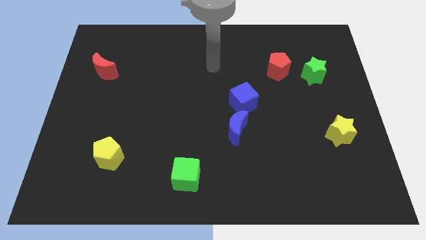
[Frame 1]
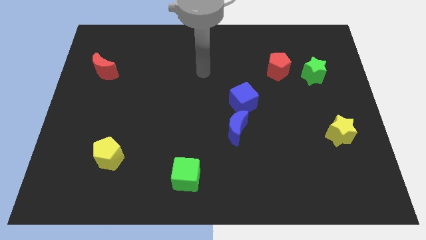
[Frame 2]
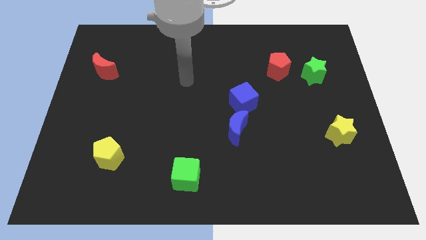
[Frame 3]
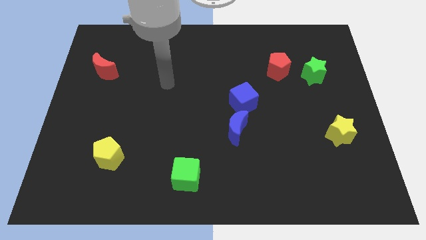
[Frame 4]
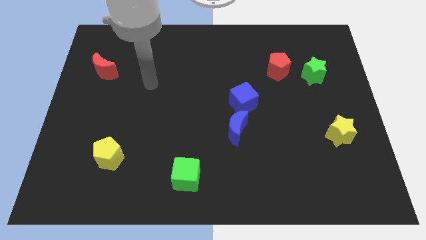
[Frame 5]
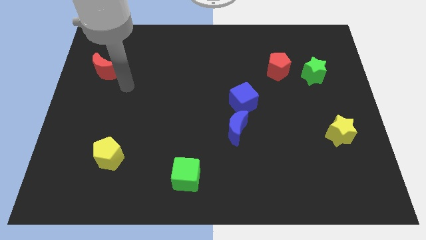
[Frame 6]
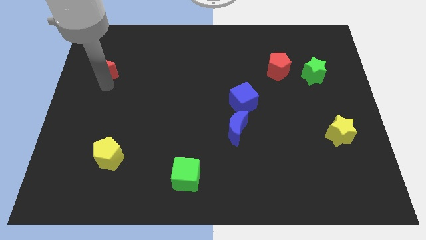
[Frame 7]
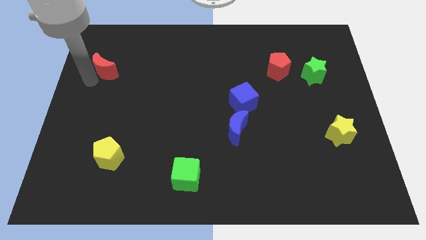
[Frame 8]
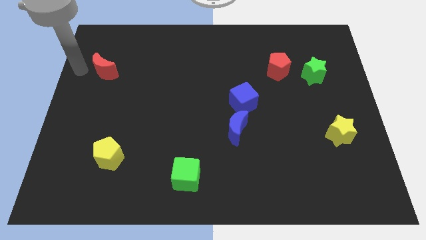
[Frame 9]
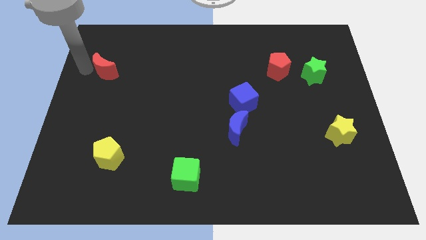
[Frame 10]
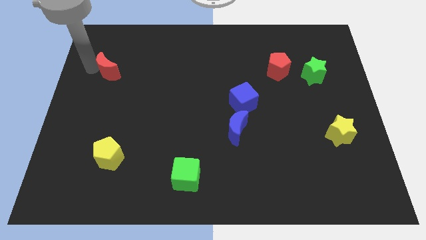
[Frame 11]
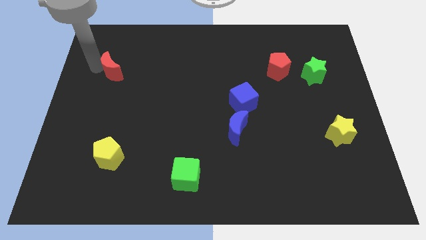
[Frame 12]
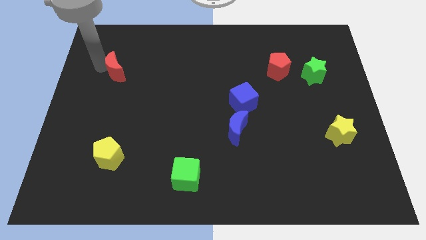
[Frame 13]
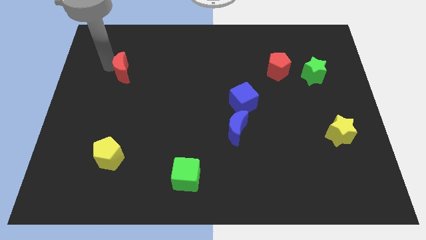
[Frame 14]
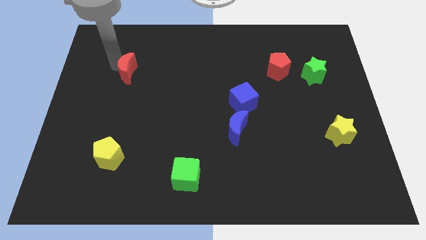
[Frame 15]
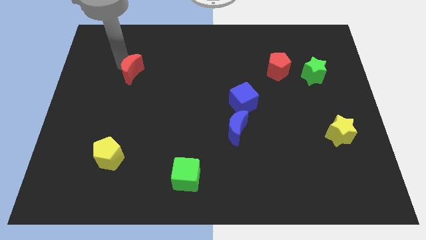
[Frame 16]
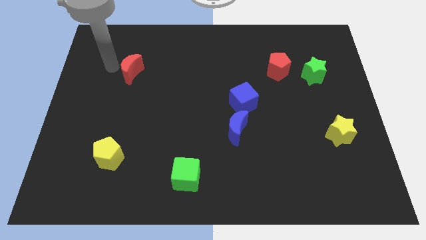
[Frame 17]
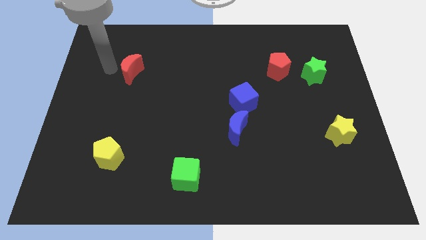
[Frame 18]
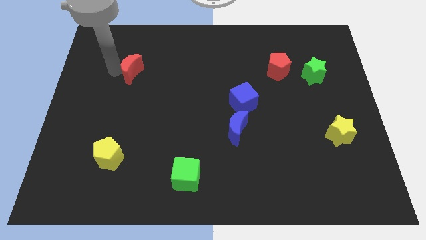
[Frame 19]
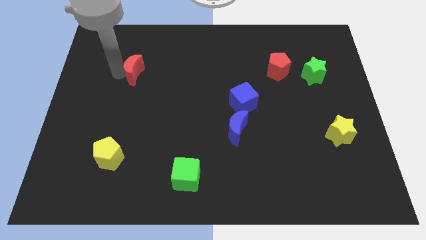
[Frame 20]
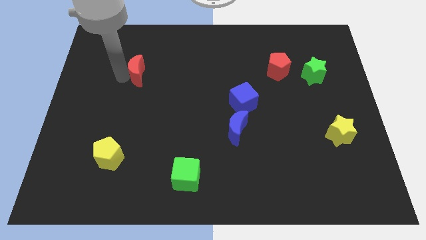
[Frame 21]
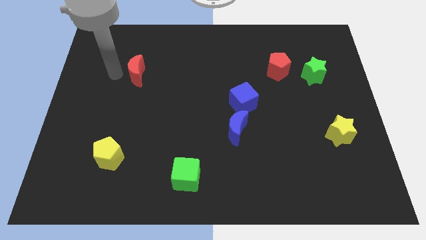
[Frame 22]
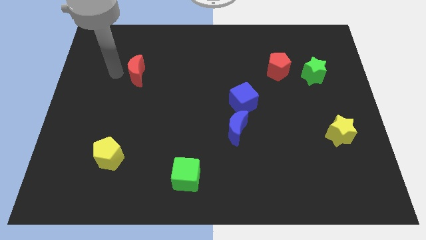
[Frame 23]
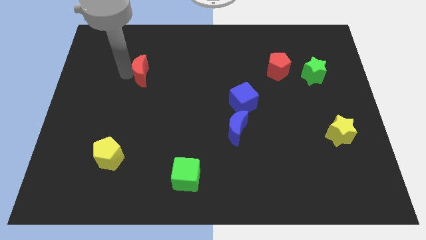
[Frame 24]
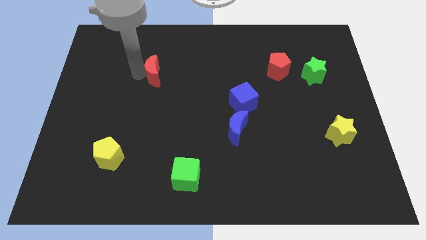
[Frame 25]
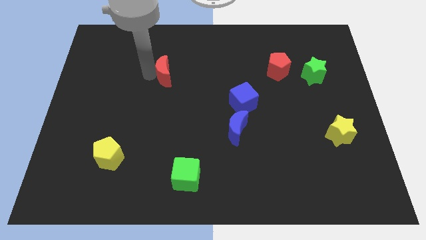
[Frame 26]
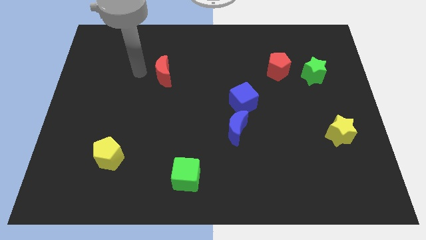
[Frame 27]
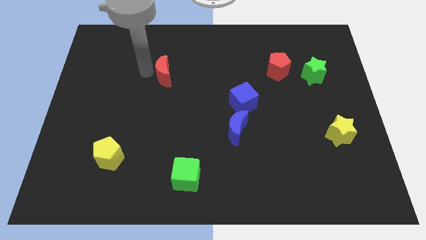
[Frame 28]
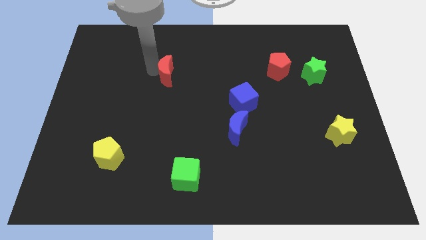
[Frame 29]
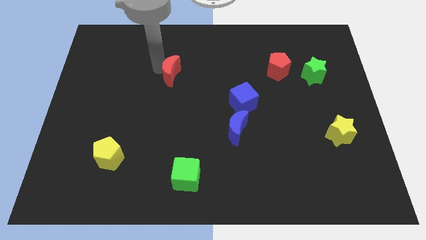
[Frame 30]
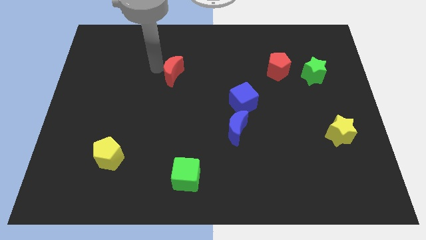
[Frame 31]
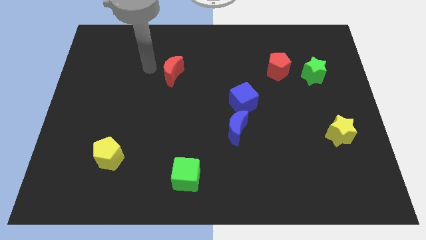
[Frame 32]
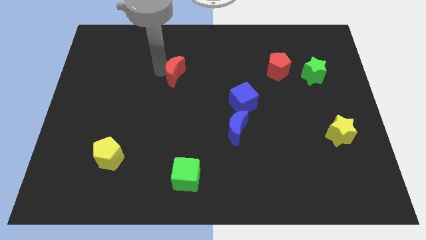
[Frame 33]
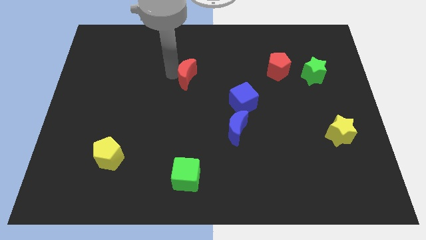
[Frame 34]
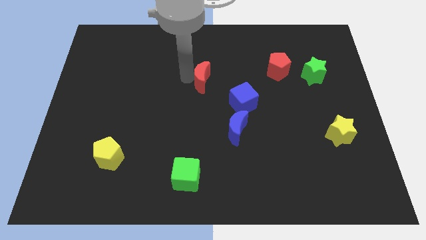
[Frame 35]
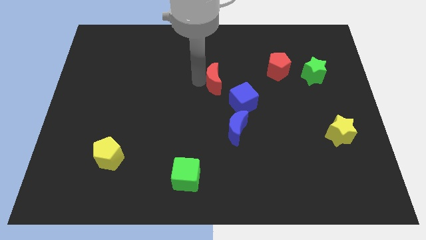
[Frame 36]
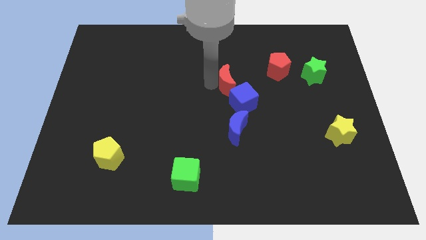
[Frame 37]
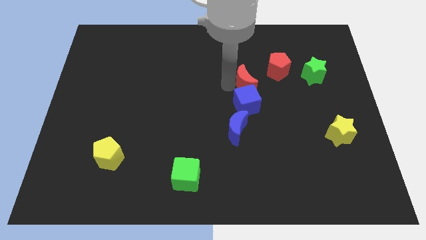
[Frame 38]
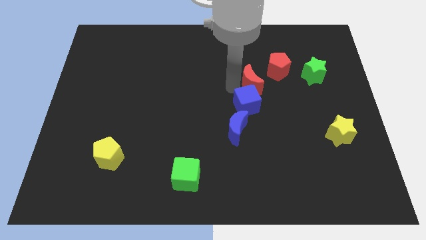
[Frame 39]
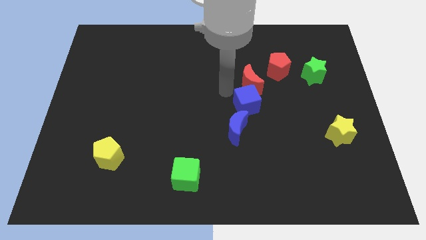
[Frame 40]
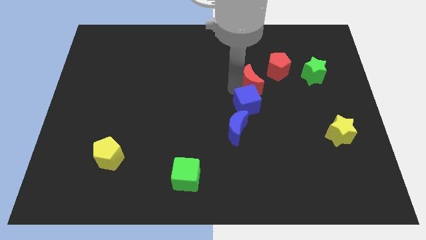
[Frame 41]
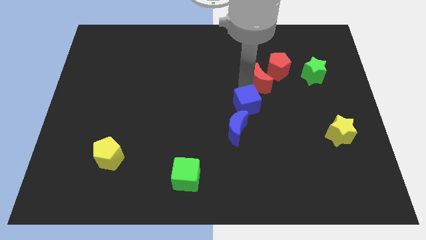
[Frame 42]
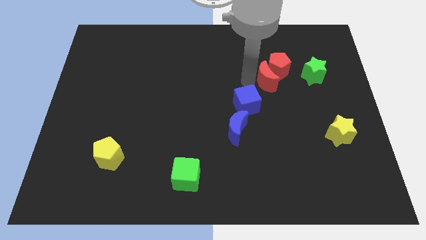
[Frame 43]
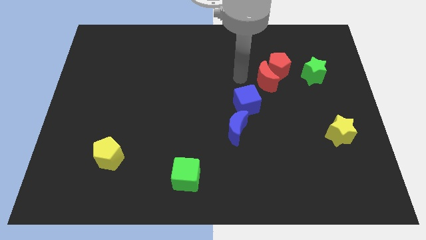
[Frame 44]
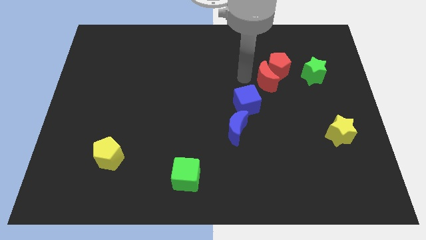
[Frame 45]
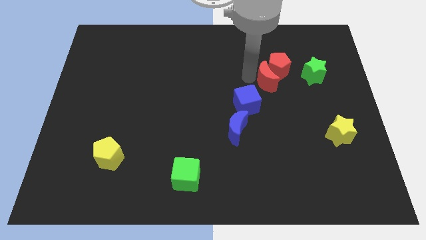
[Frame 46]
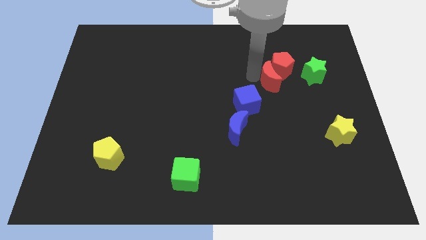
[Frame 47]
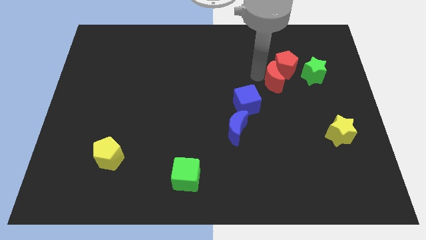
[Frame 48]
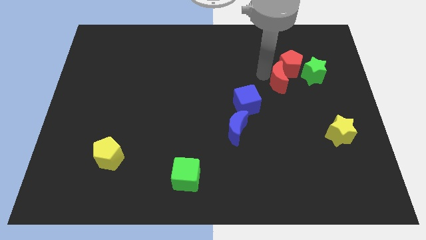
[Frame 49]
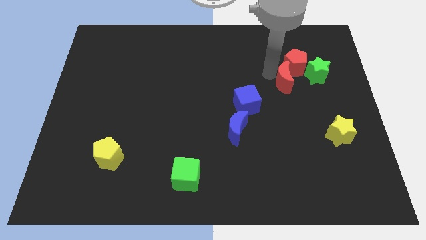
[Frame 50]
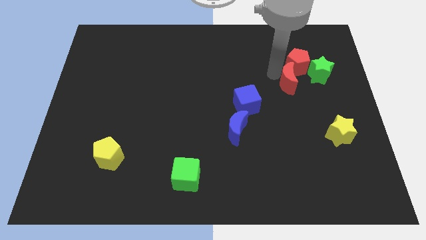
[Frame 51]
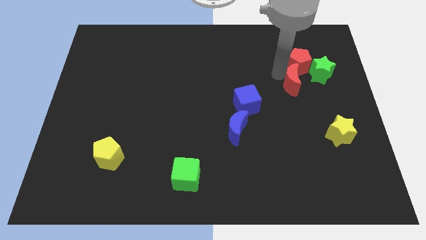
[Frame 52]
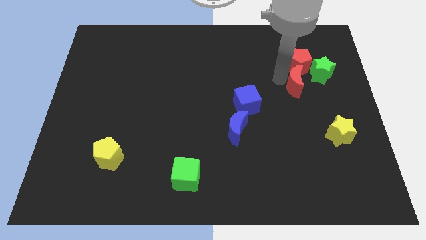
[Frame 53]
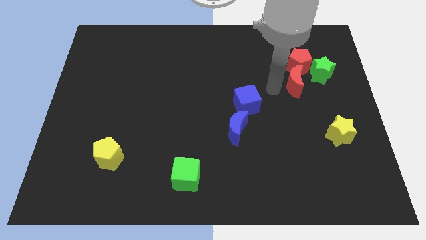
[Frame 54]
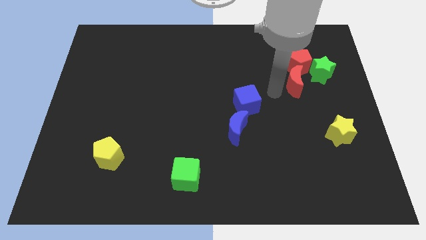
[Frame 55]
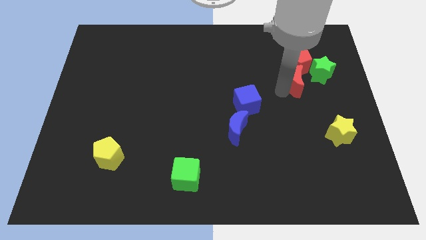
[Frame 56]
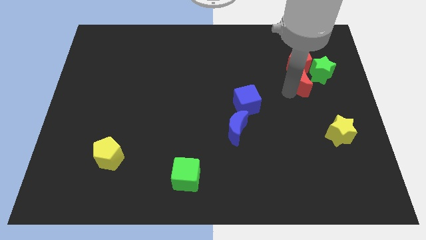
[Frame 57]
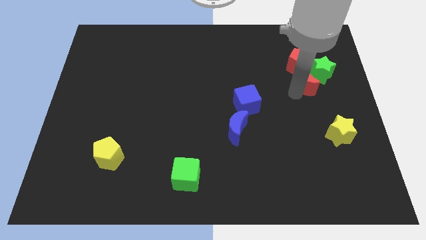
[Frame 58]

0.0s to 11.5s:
push the red moon to the green star

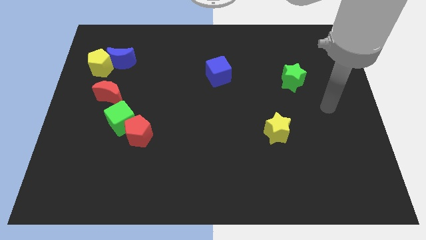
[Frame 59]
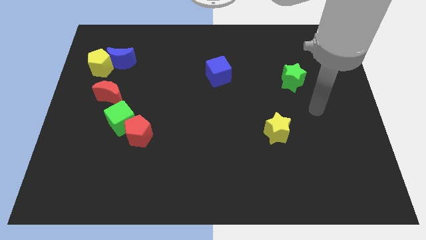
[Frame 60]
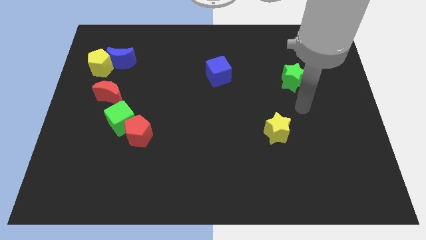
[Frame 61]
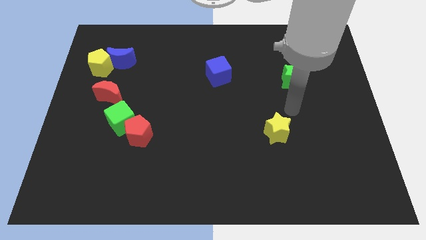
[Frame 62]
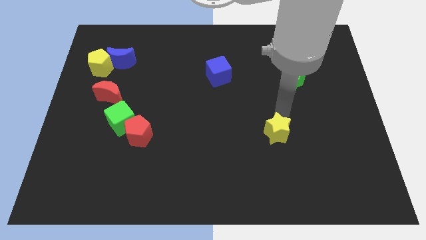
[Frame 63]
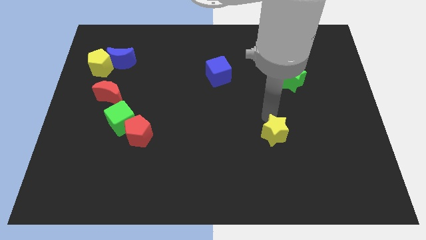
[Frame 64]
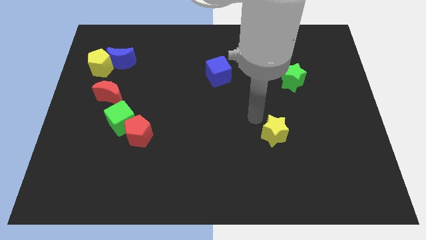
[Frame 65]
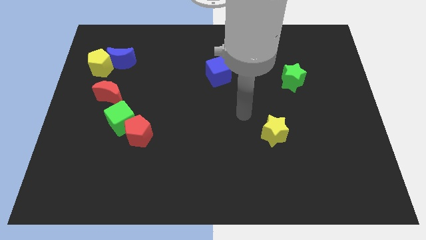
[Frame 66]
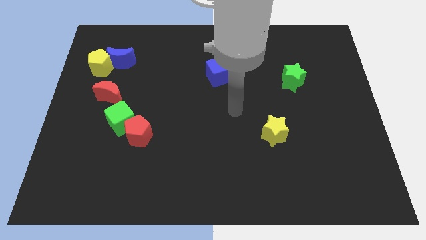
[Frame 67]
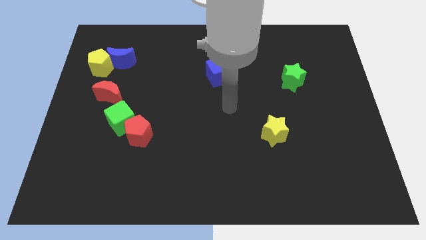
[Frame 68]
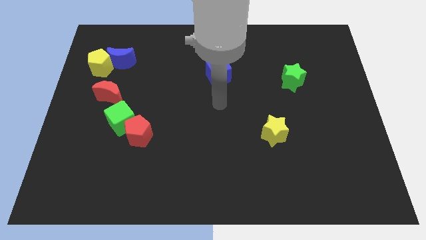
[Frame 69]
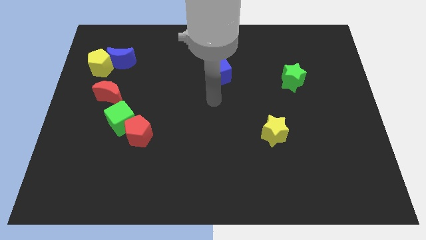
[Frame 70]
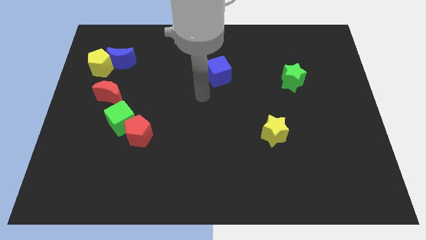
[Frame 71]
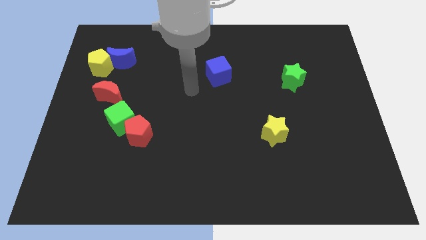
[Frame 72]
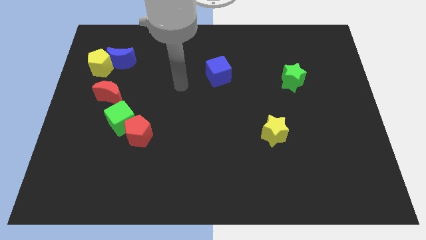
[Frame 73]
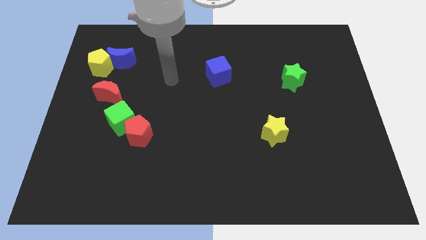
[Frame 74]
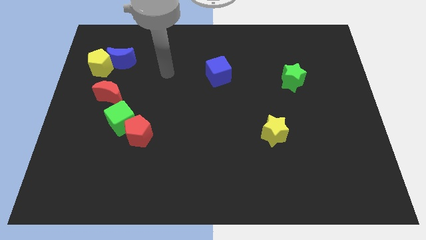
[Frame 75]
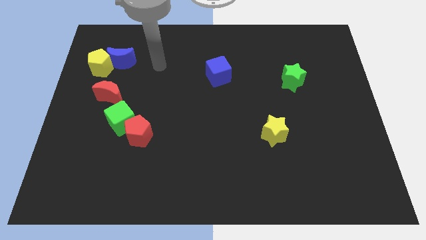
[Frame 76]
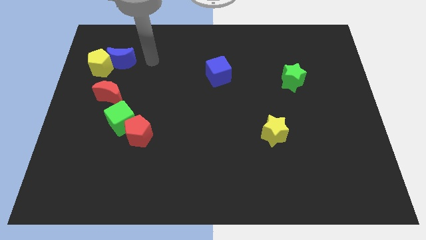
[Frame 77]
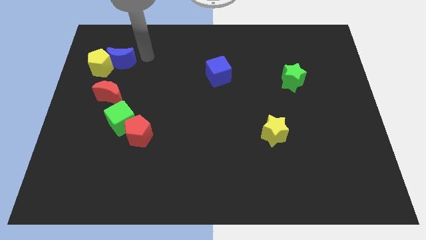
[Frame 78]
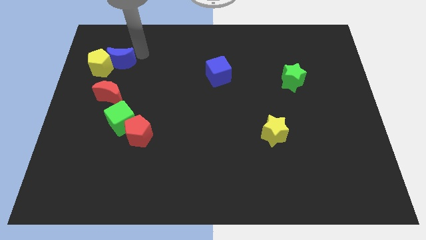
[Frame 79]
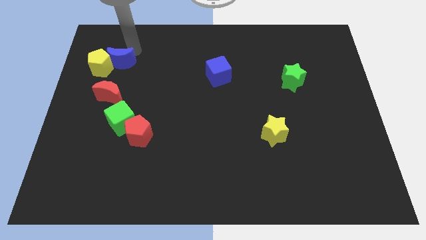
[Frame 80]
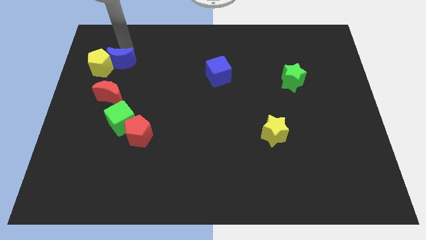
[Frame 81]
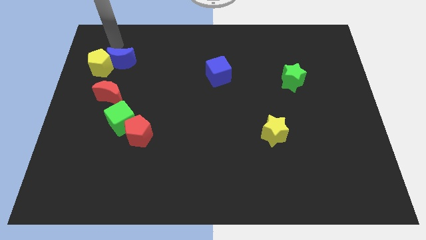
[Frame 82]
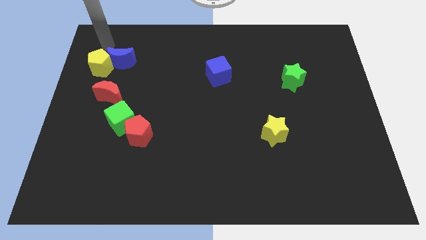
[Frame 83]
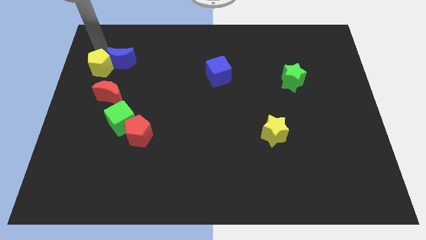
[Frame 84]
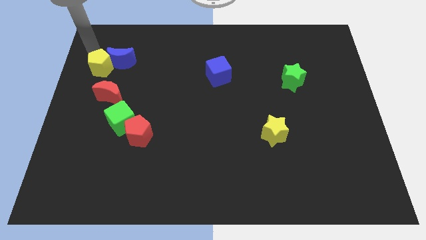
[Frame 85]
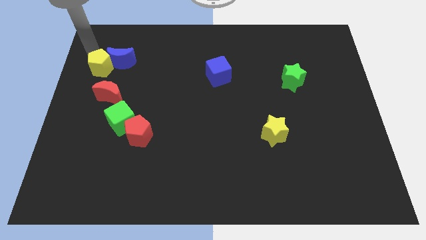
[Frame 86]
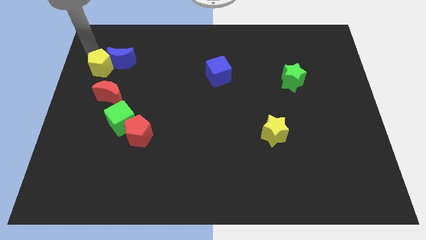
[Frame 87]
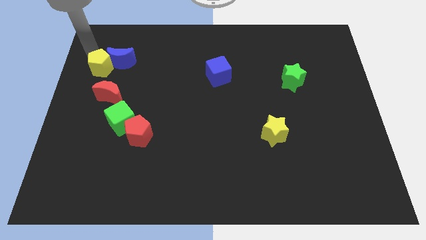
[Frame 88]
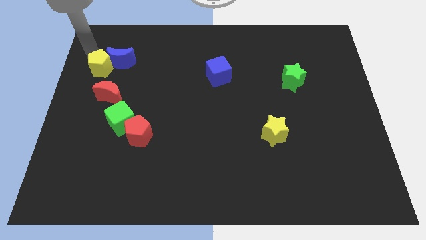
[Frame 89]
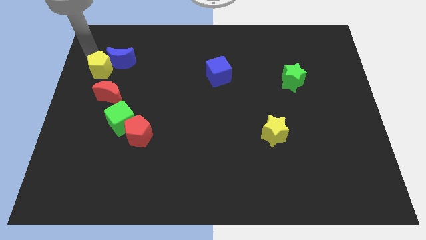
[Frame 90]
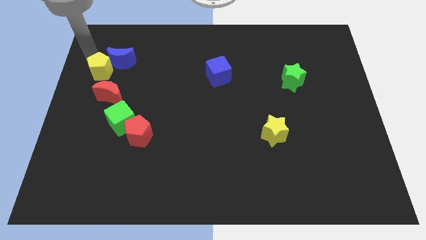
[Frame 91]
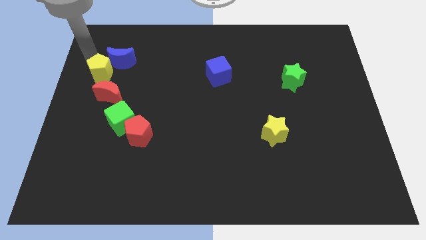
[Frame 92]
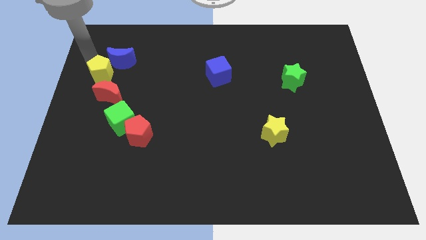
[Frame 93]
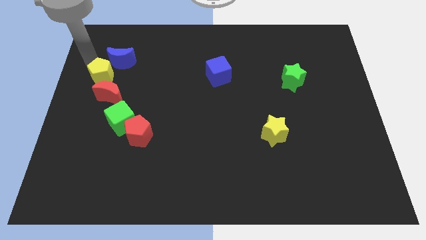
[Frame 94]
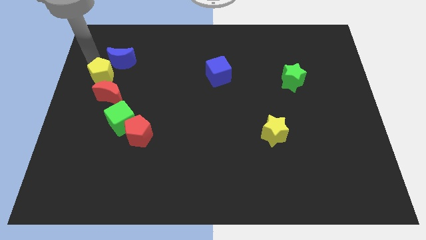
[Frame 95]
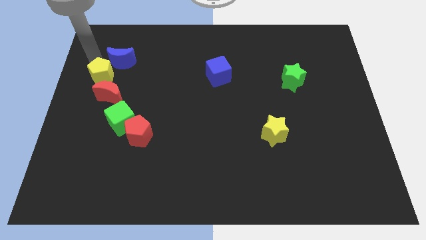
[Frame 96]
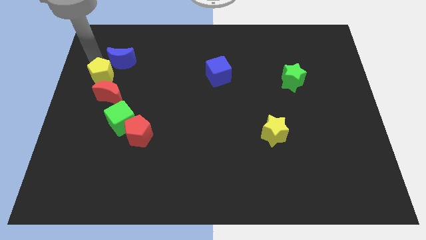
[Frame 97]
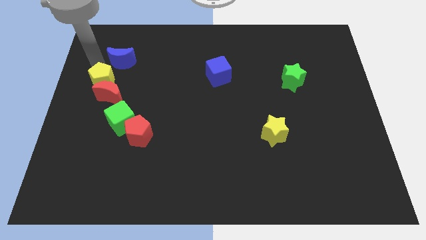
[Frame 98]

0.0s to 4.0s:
push the yellow pentagon to the red moon
